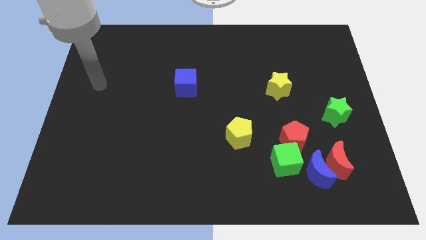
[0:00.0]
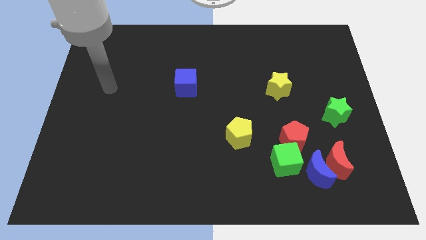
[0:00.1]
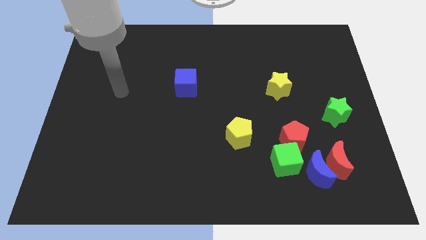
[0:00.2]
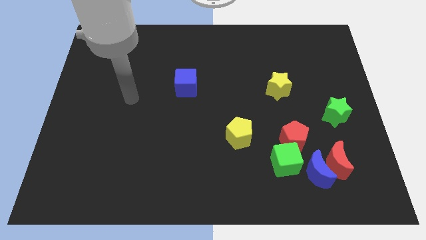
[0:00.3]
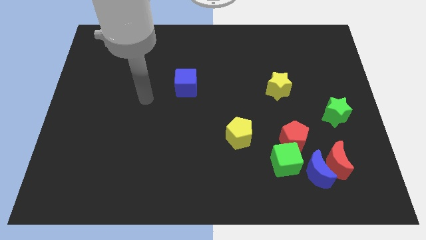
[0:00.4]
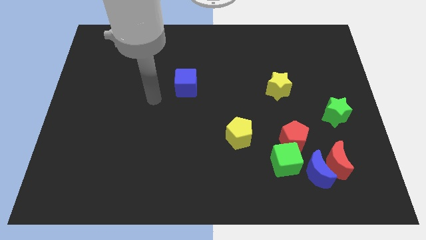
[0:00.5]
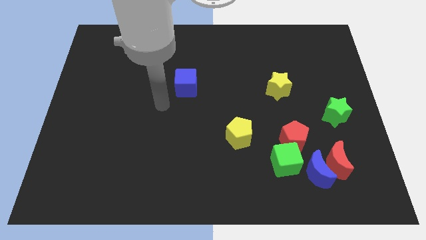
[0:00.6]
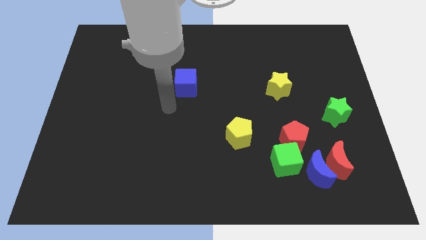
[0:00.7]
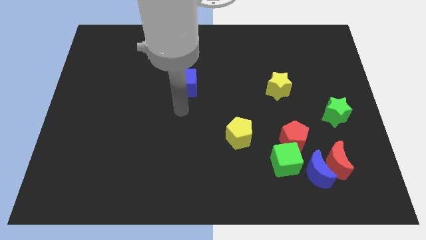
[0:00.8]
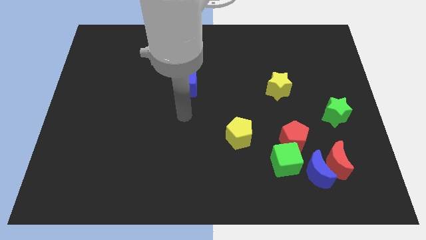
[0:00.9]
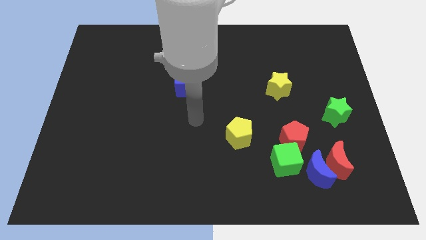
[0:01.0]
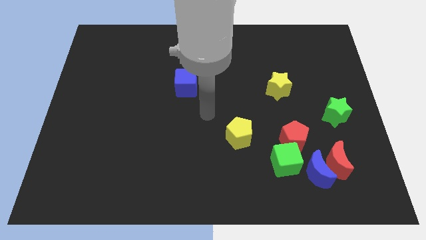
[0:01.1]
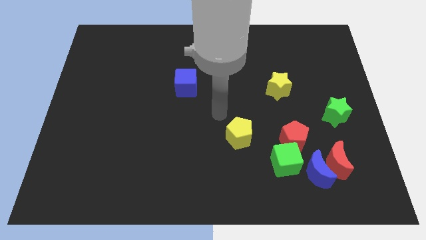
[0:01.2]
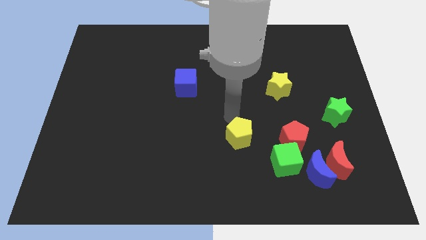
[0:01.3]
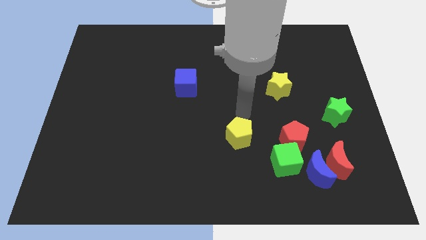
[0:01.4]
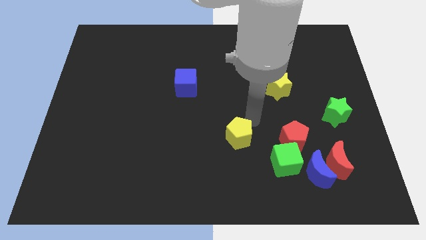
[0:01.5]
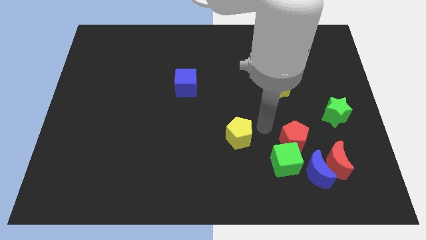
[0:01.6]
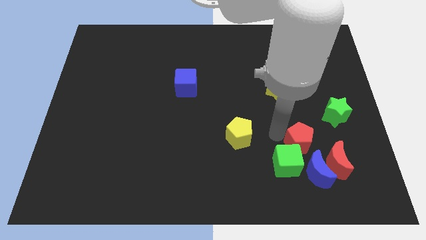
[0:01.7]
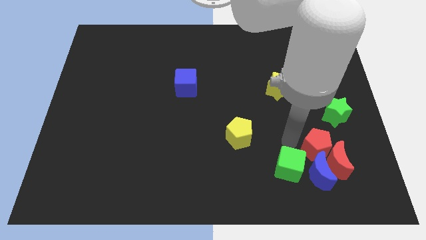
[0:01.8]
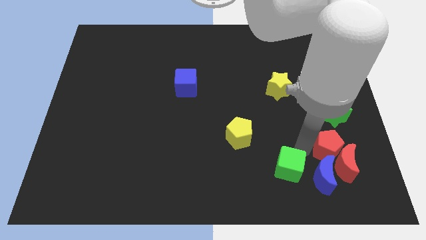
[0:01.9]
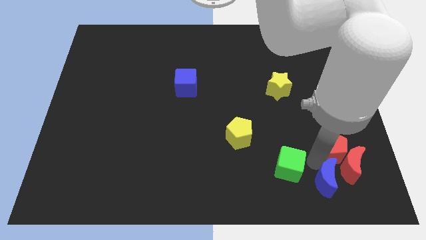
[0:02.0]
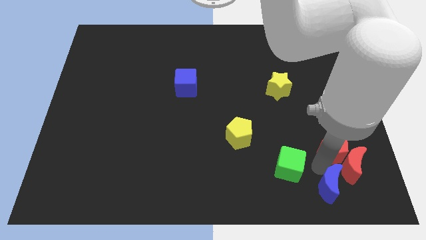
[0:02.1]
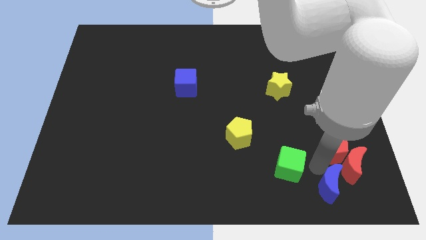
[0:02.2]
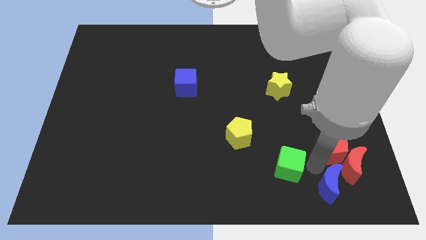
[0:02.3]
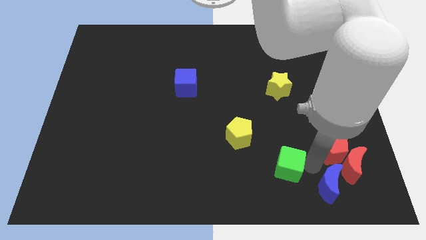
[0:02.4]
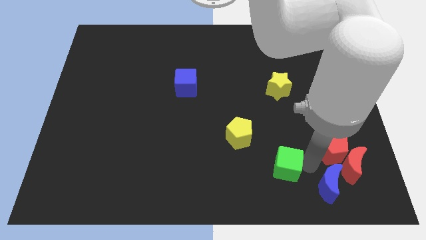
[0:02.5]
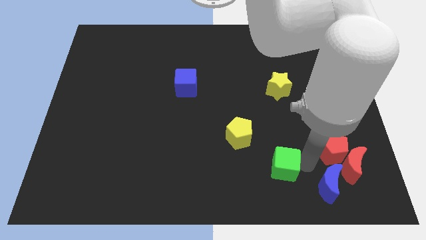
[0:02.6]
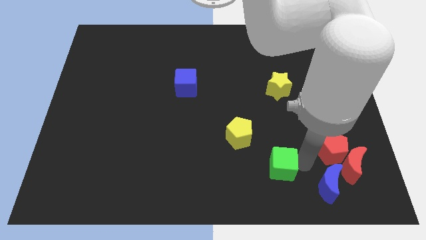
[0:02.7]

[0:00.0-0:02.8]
move the green cube away from the red pentagon and blue moon

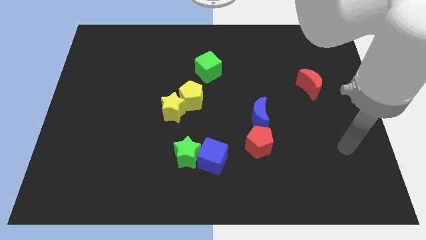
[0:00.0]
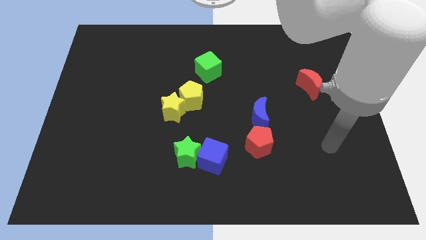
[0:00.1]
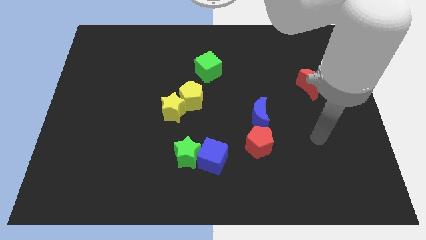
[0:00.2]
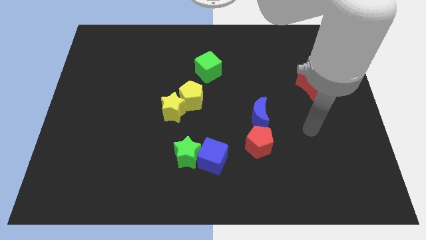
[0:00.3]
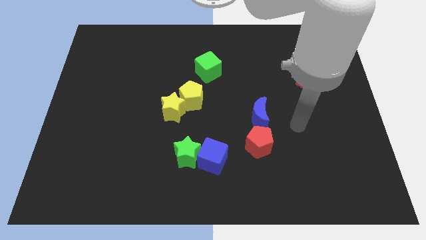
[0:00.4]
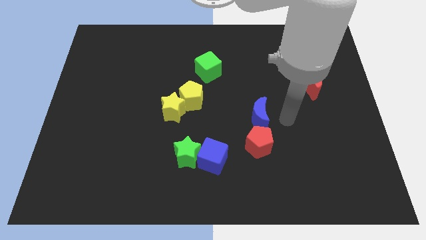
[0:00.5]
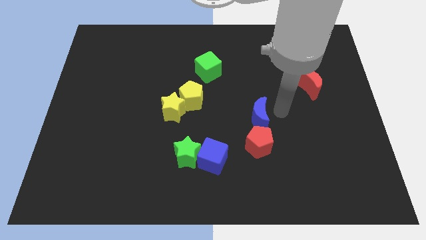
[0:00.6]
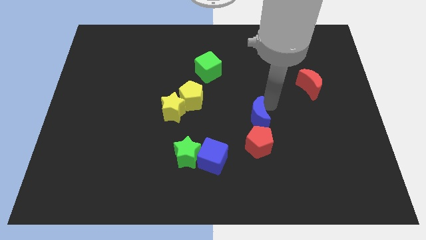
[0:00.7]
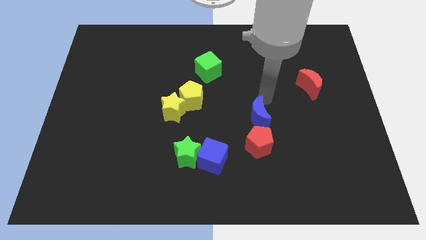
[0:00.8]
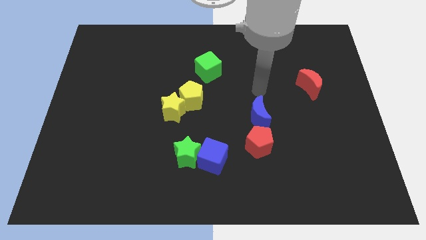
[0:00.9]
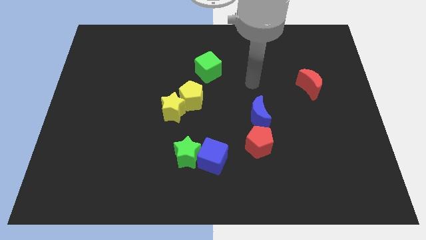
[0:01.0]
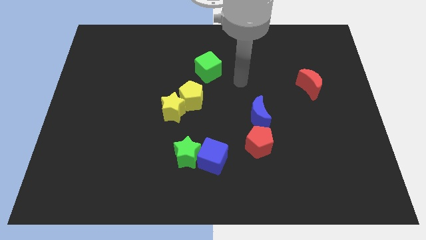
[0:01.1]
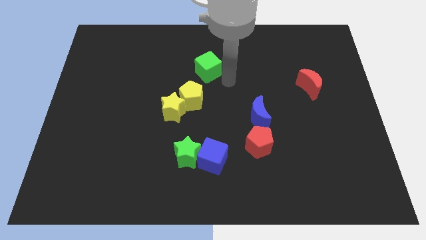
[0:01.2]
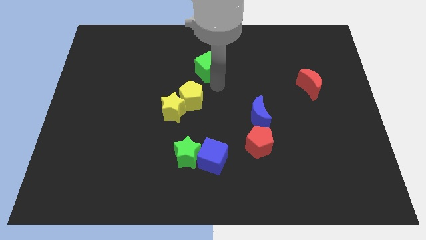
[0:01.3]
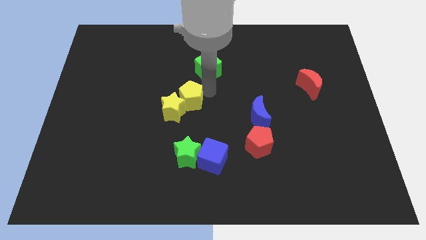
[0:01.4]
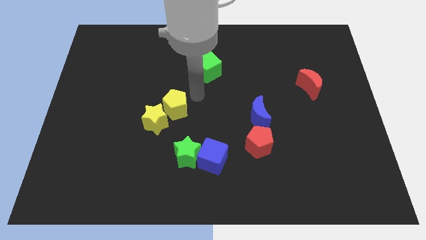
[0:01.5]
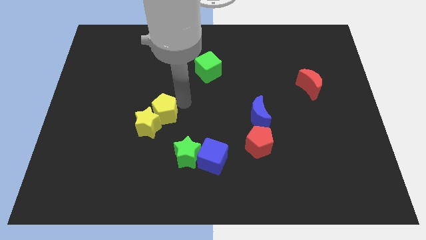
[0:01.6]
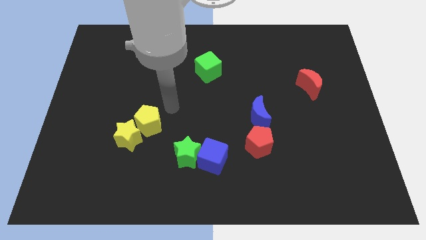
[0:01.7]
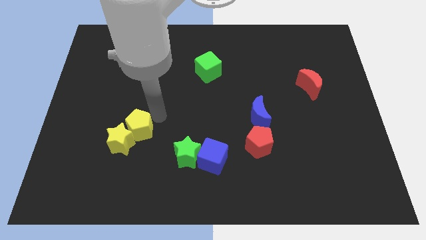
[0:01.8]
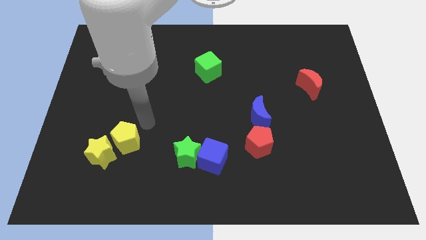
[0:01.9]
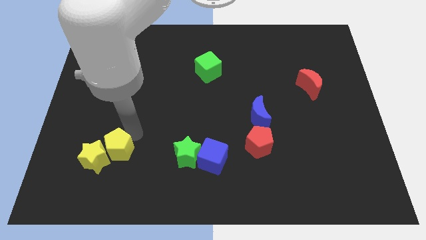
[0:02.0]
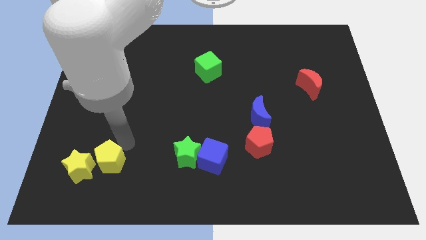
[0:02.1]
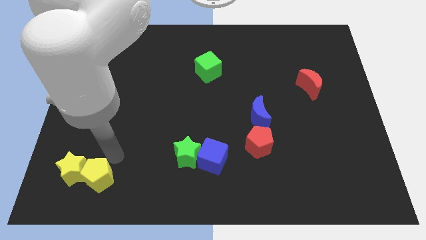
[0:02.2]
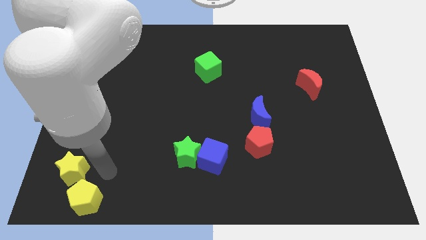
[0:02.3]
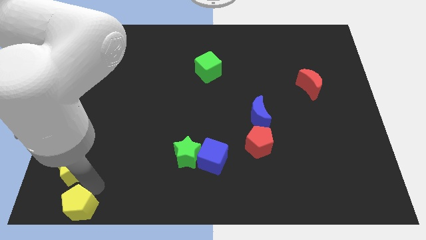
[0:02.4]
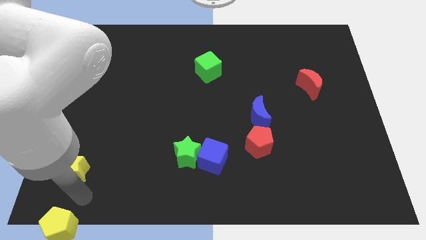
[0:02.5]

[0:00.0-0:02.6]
move the yellow star away from the yellow pentagon

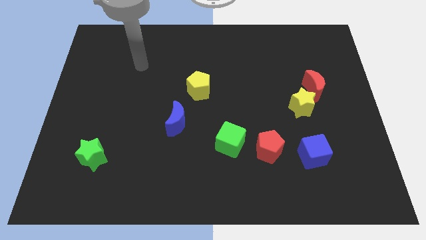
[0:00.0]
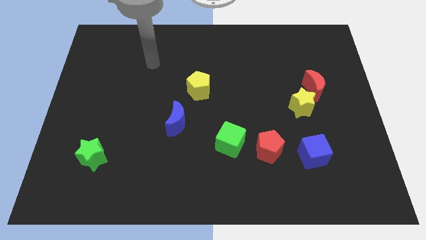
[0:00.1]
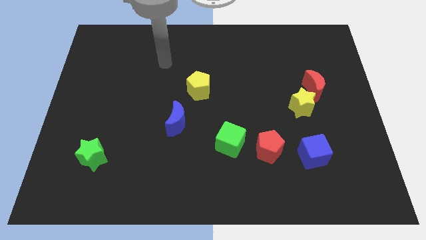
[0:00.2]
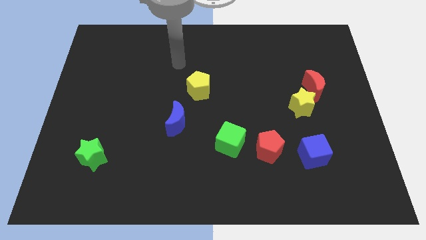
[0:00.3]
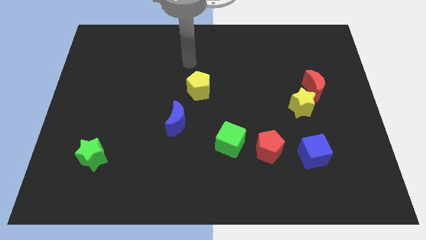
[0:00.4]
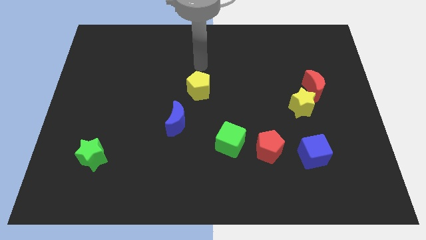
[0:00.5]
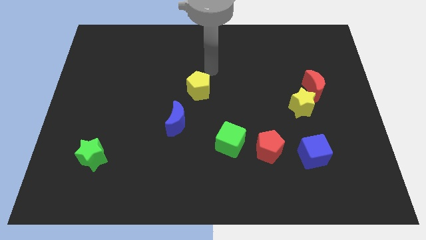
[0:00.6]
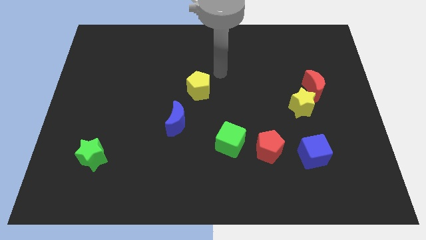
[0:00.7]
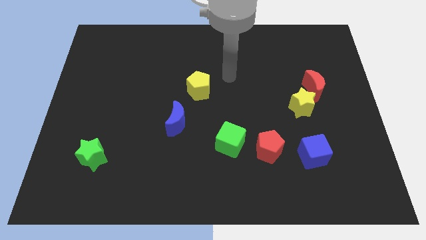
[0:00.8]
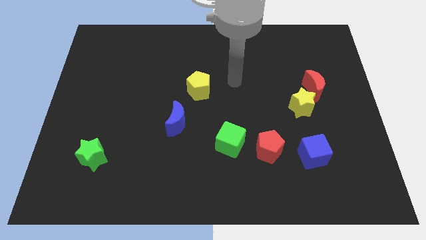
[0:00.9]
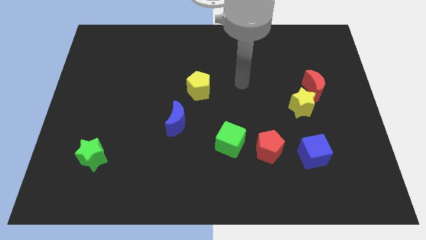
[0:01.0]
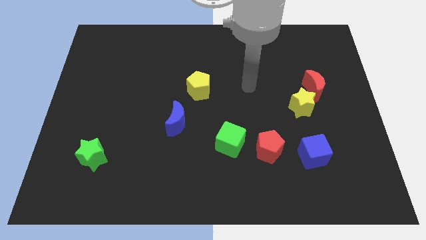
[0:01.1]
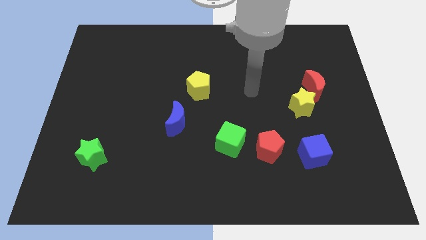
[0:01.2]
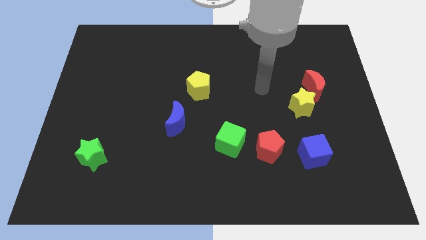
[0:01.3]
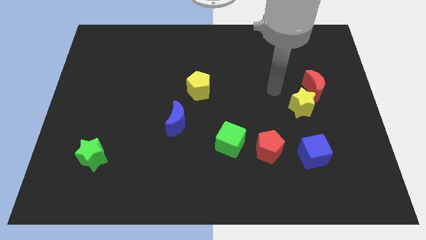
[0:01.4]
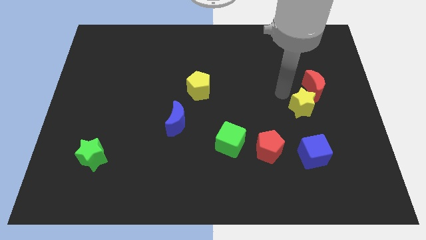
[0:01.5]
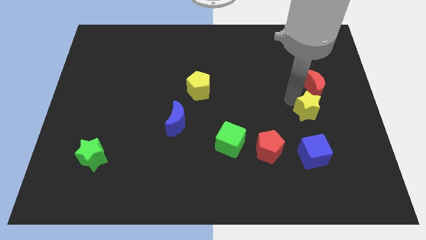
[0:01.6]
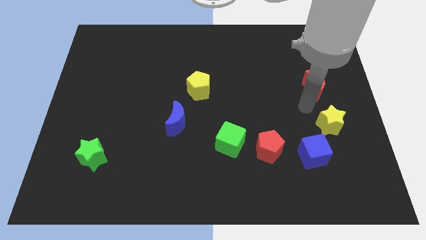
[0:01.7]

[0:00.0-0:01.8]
pull the red moon apart from the yellow star

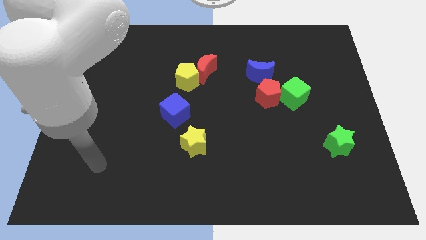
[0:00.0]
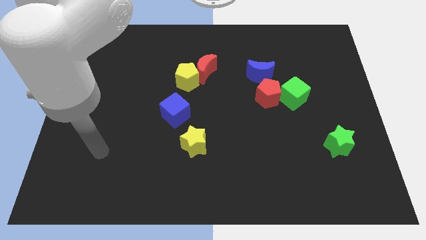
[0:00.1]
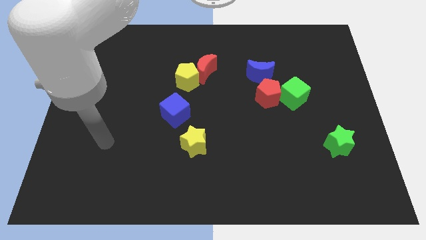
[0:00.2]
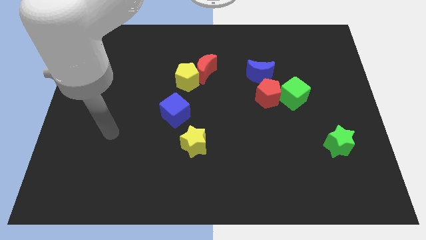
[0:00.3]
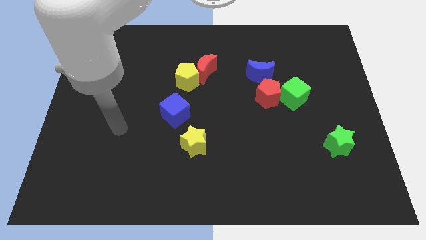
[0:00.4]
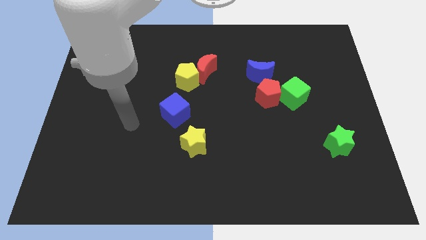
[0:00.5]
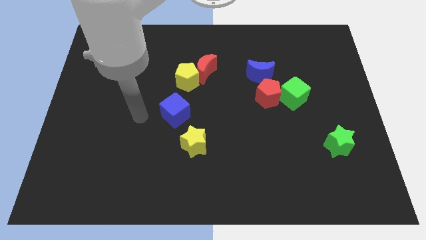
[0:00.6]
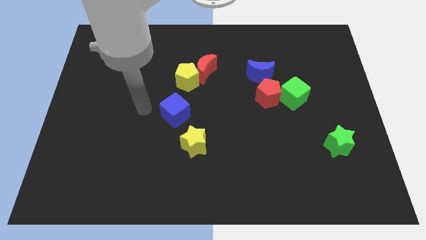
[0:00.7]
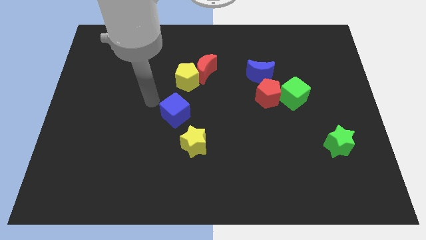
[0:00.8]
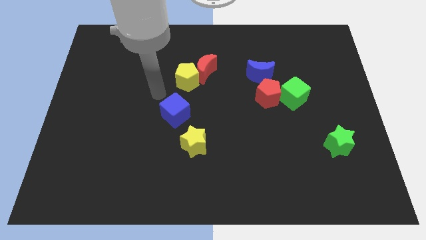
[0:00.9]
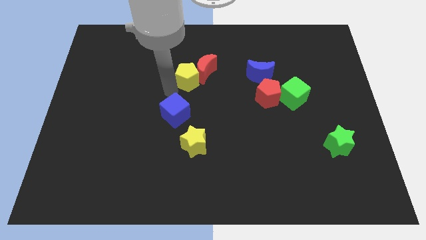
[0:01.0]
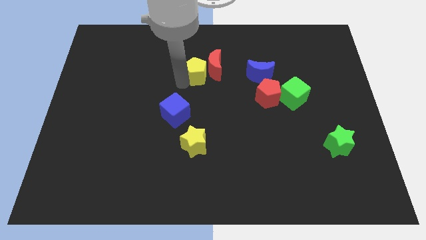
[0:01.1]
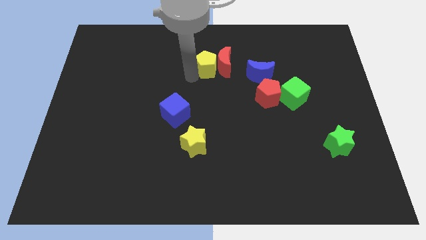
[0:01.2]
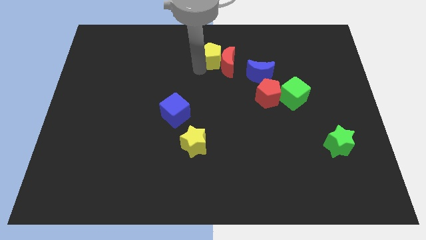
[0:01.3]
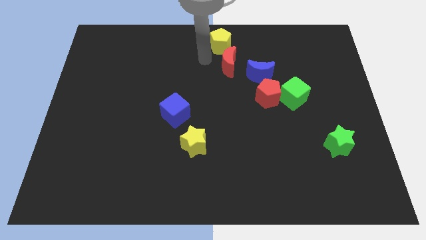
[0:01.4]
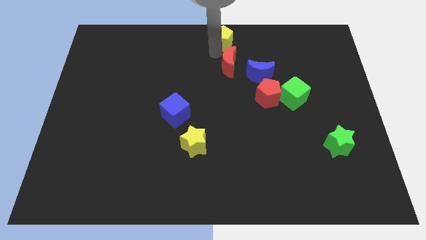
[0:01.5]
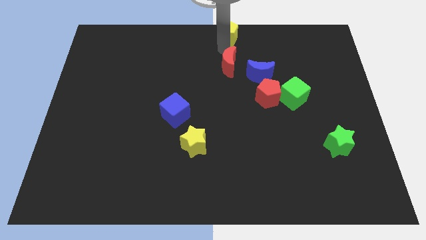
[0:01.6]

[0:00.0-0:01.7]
move the red moon away from the yellow pentagon

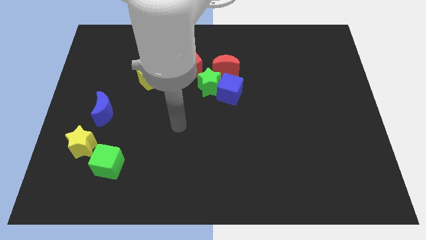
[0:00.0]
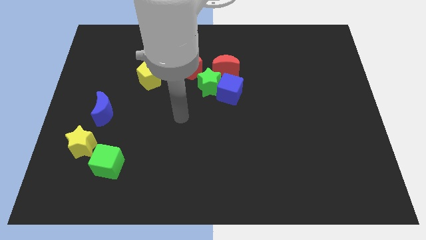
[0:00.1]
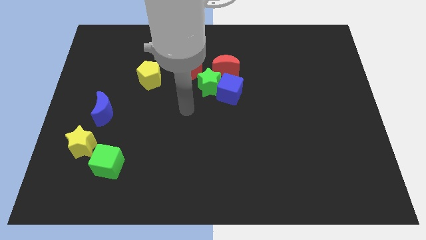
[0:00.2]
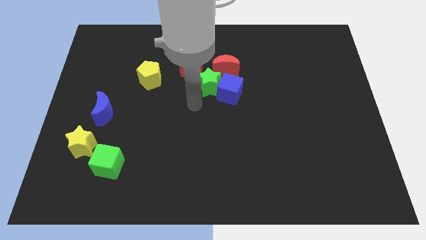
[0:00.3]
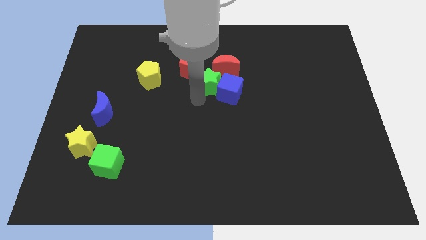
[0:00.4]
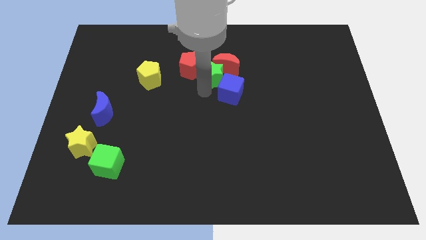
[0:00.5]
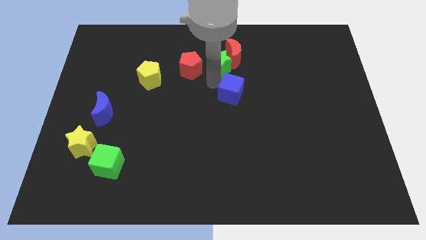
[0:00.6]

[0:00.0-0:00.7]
separate the blue cube from the green star and red moon
